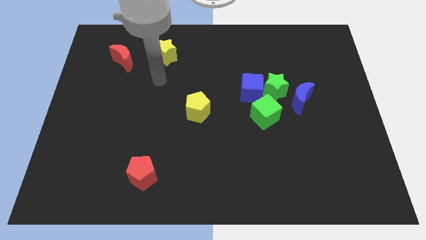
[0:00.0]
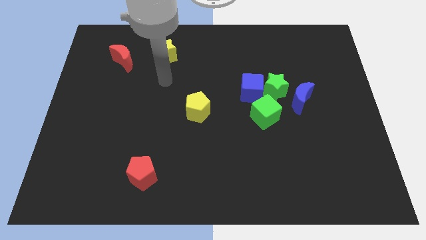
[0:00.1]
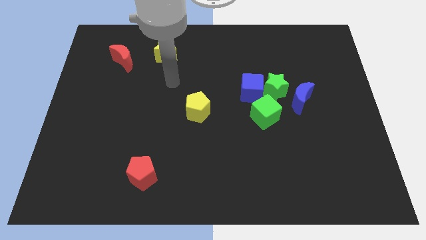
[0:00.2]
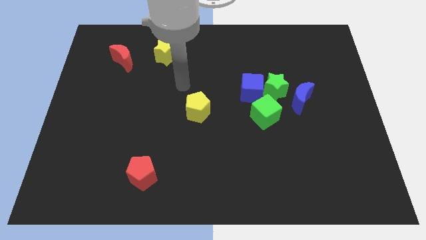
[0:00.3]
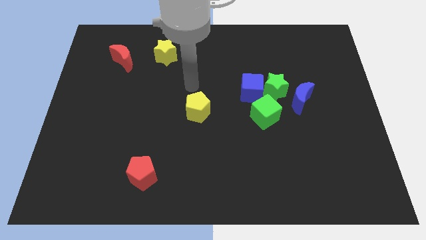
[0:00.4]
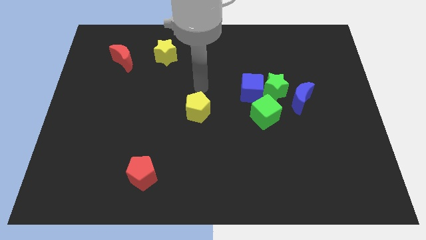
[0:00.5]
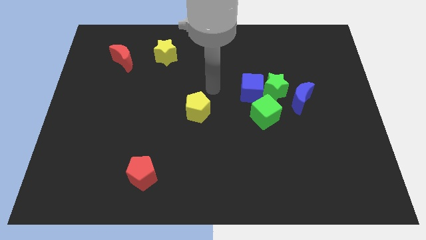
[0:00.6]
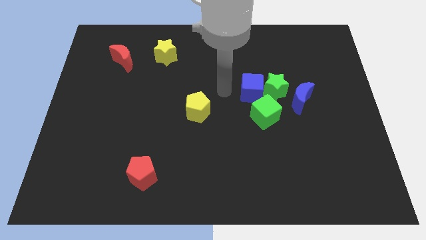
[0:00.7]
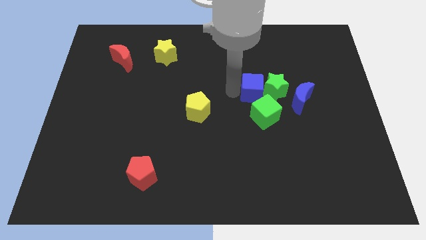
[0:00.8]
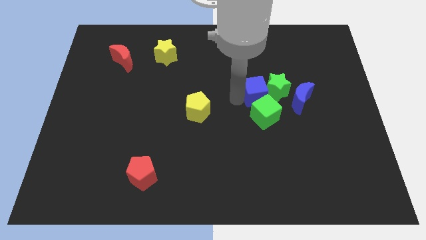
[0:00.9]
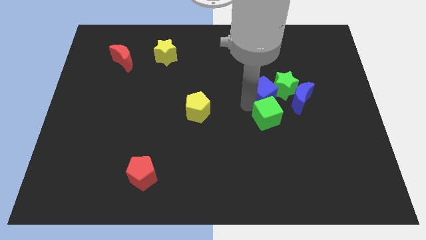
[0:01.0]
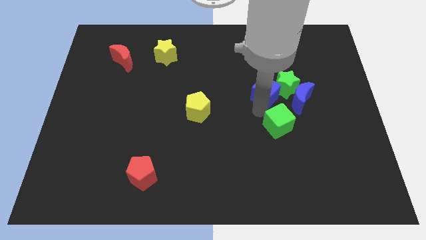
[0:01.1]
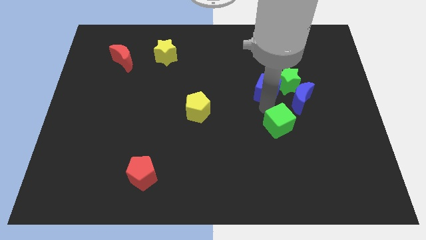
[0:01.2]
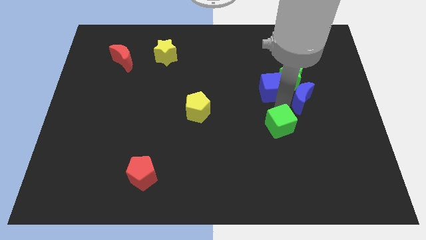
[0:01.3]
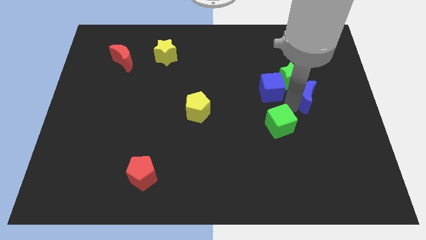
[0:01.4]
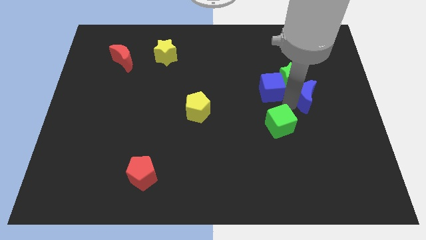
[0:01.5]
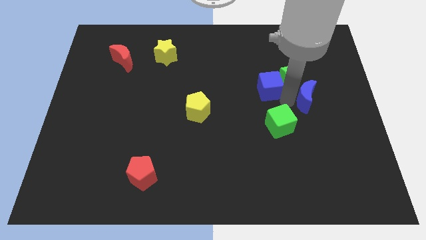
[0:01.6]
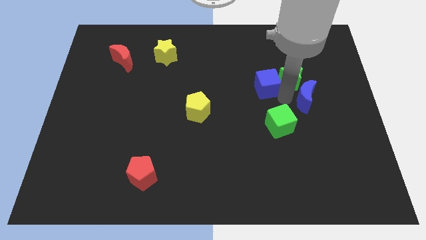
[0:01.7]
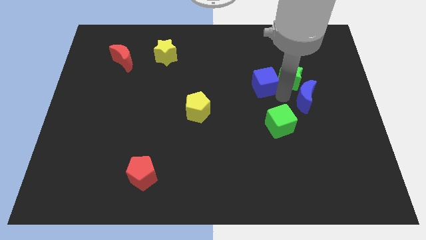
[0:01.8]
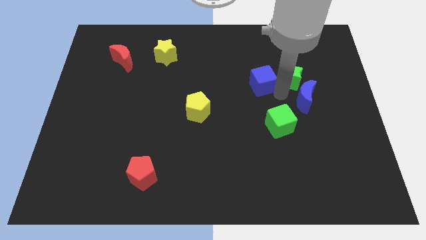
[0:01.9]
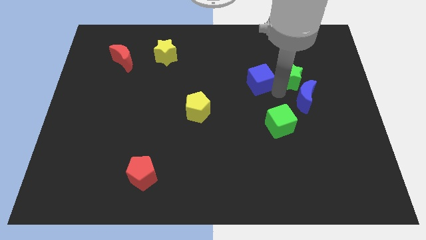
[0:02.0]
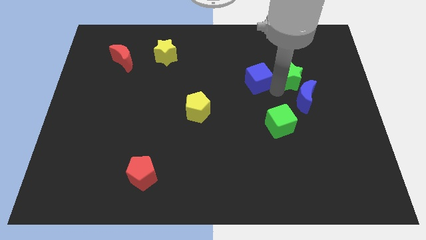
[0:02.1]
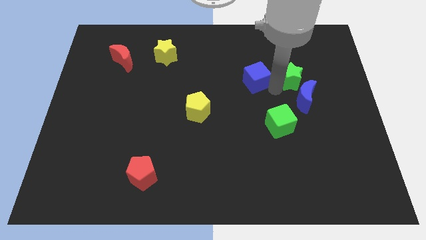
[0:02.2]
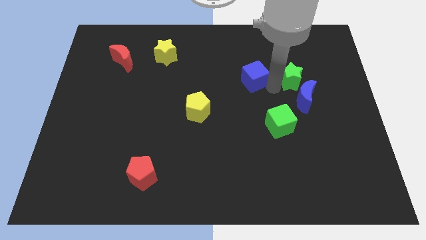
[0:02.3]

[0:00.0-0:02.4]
separate the blue cube from the green star and green cube

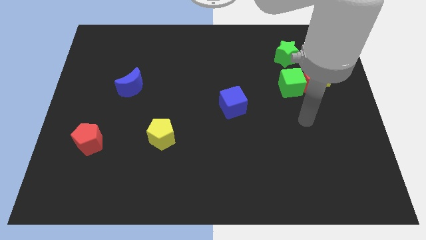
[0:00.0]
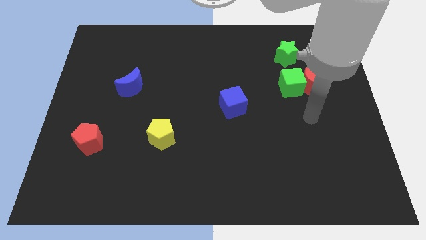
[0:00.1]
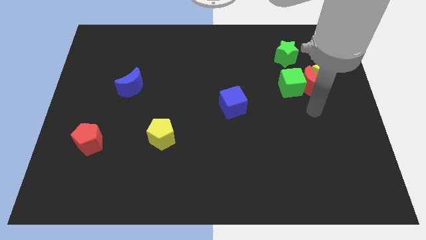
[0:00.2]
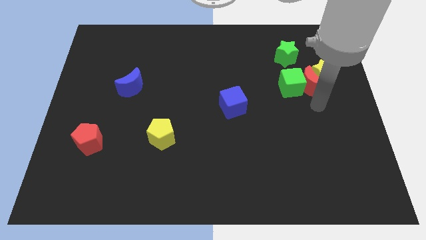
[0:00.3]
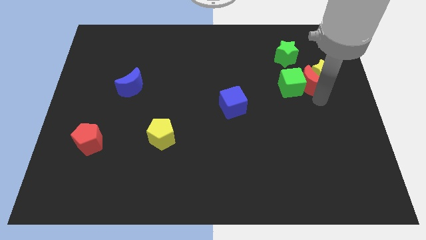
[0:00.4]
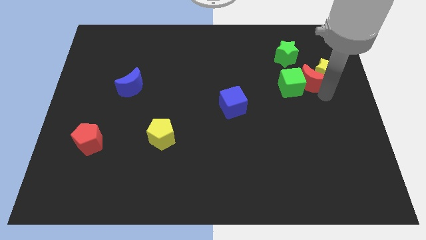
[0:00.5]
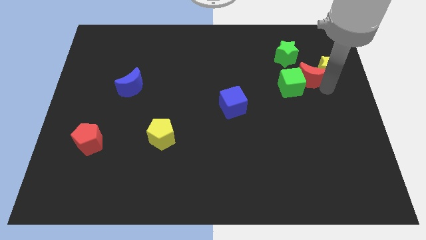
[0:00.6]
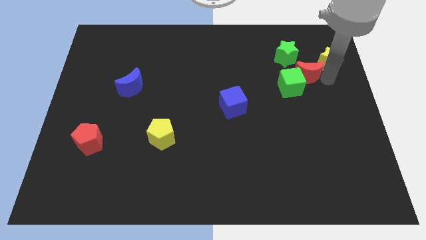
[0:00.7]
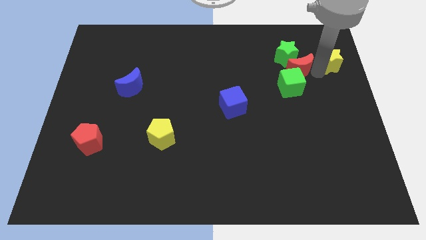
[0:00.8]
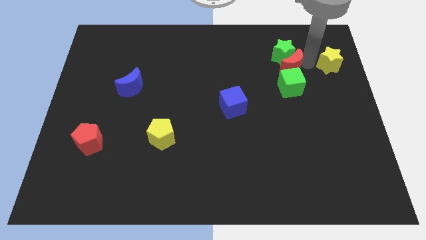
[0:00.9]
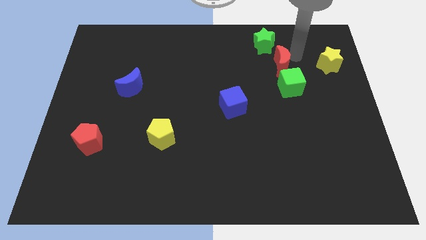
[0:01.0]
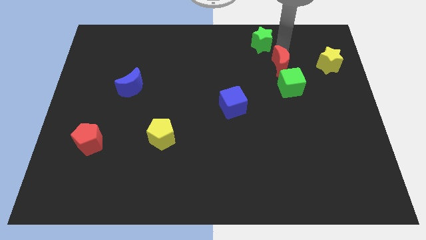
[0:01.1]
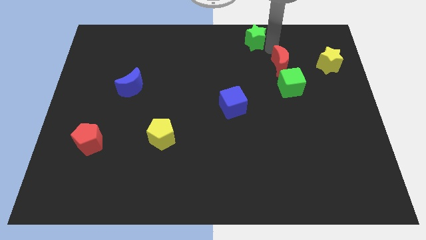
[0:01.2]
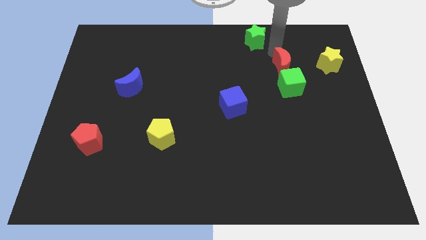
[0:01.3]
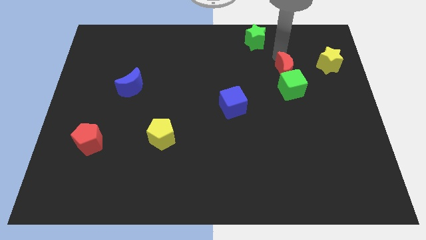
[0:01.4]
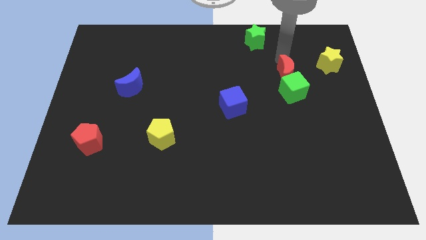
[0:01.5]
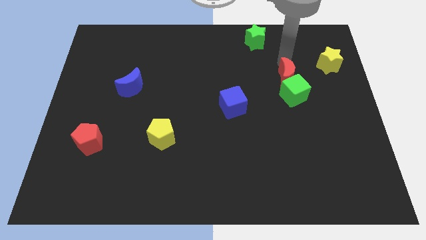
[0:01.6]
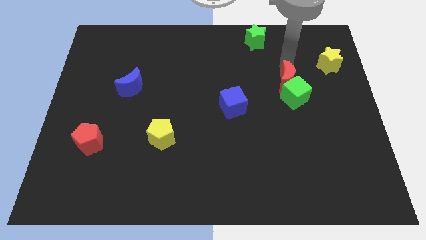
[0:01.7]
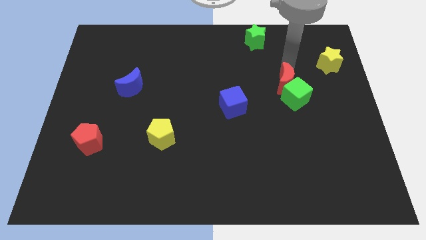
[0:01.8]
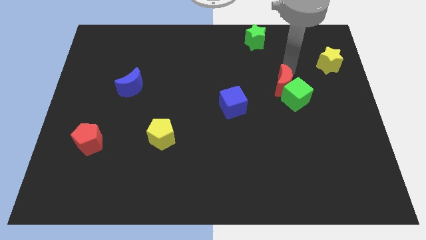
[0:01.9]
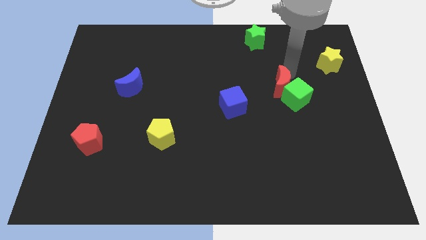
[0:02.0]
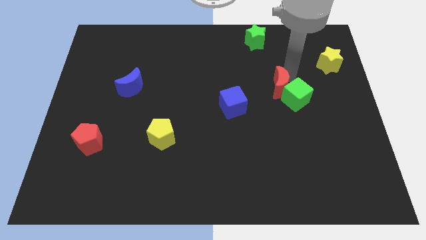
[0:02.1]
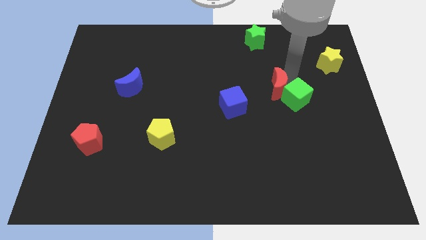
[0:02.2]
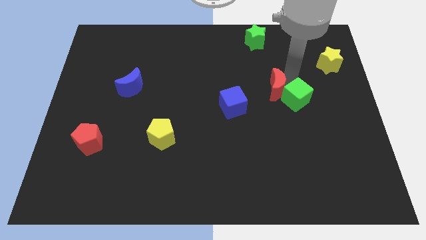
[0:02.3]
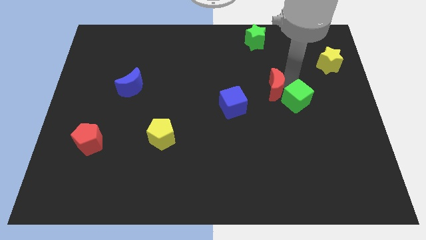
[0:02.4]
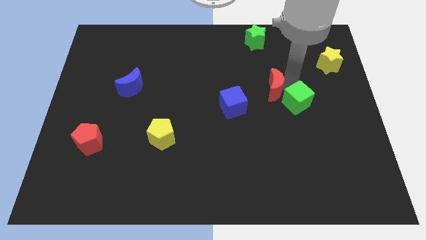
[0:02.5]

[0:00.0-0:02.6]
separate the red moon from the yellow star and green cube

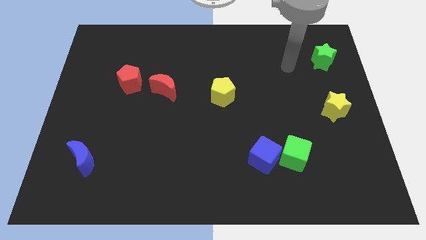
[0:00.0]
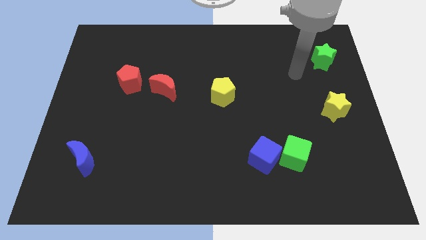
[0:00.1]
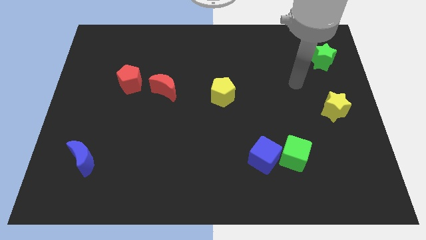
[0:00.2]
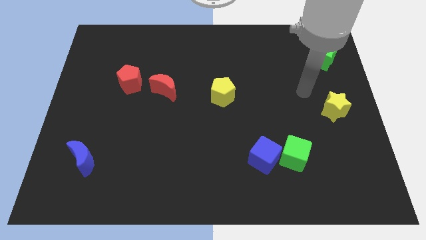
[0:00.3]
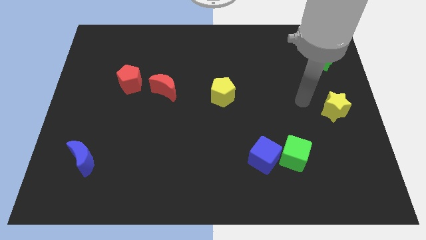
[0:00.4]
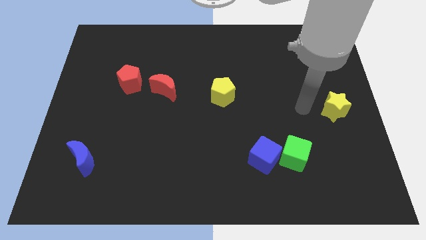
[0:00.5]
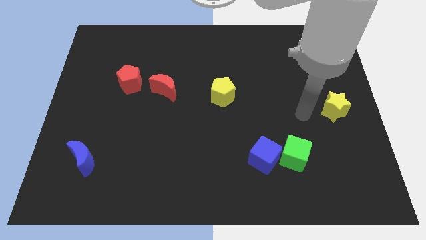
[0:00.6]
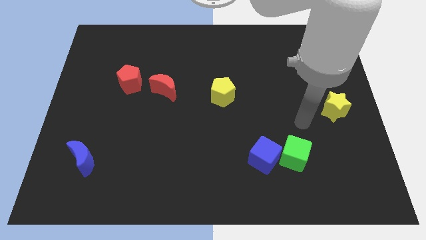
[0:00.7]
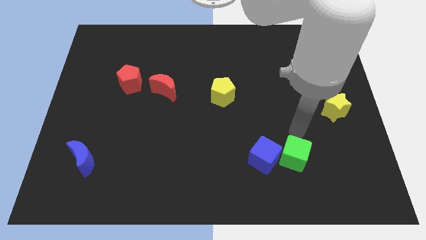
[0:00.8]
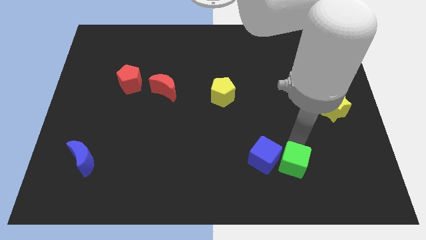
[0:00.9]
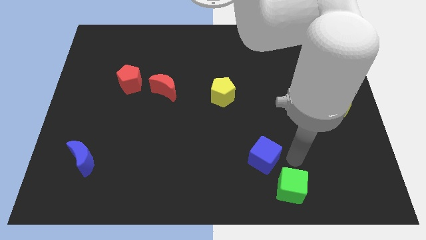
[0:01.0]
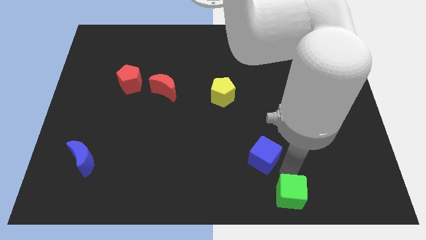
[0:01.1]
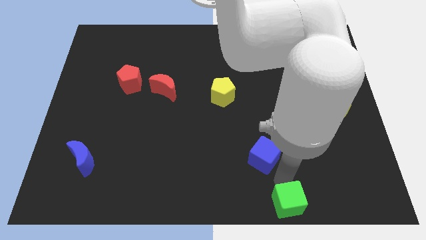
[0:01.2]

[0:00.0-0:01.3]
pull the blue cube apart from the green cube

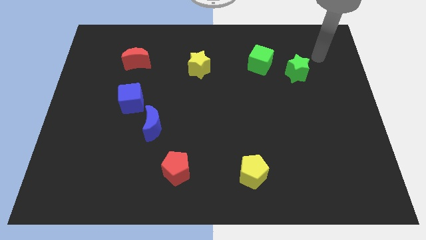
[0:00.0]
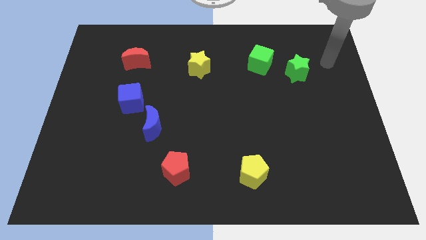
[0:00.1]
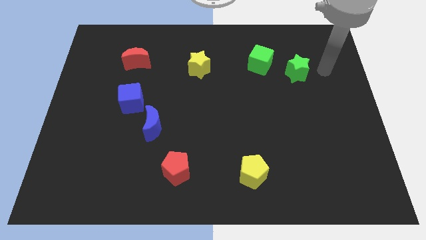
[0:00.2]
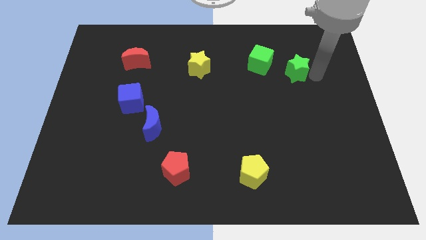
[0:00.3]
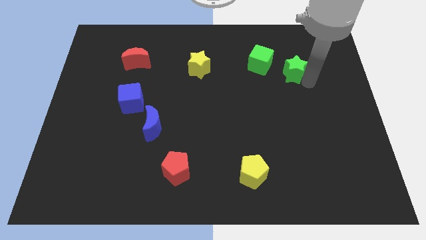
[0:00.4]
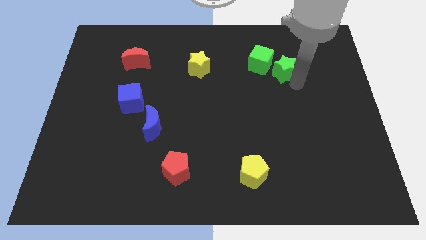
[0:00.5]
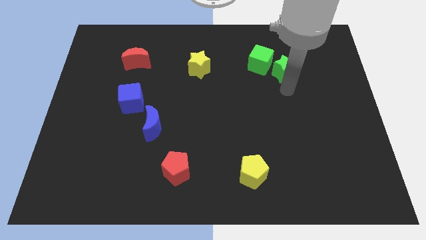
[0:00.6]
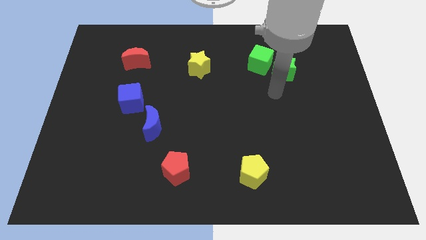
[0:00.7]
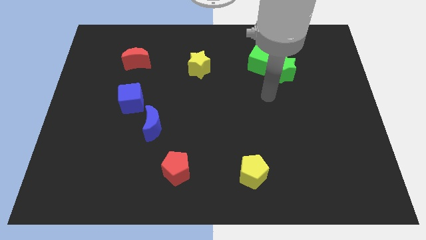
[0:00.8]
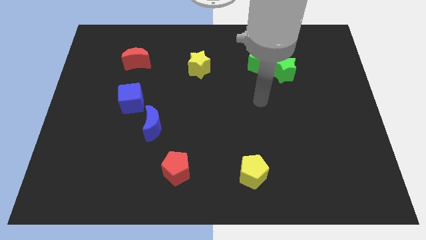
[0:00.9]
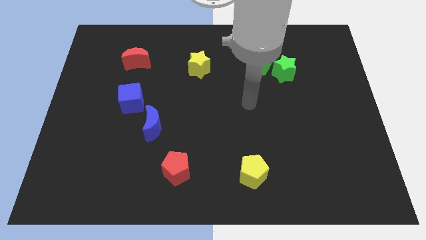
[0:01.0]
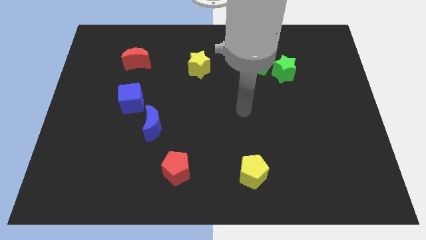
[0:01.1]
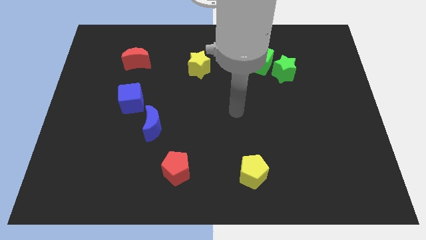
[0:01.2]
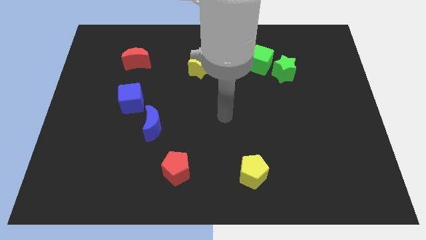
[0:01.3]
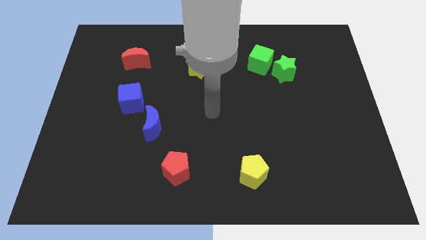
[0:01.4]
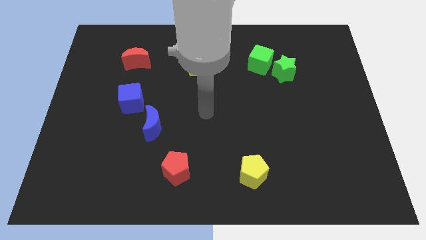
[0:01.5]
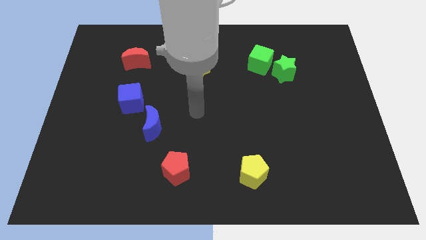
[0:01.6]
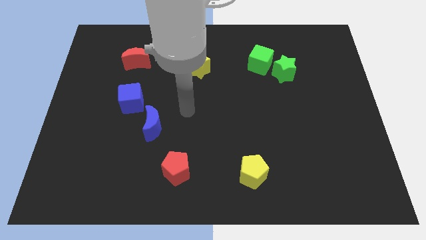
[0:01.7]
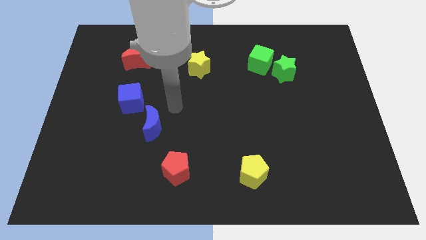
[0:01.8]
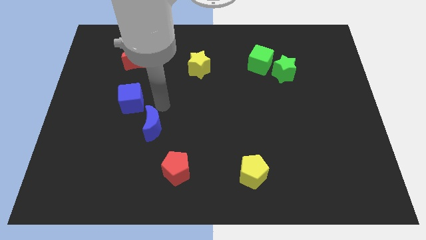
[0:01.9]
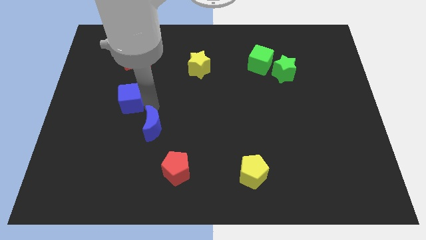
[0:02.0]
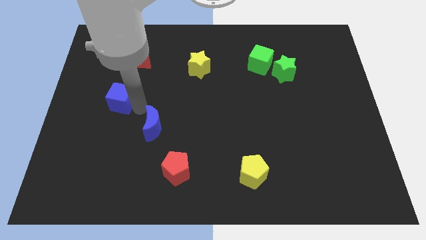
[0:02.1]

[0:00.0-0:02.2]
separate the blue moon from the blue cube

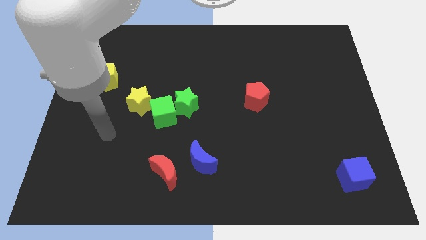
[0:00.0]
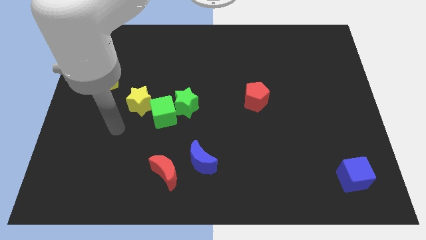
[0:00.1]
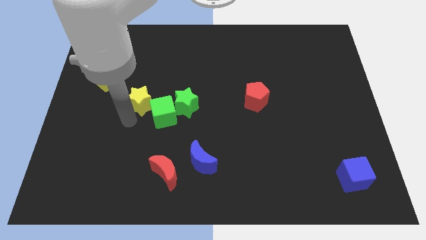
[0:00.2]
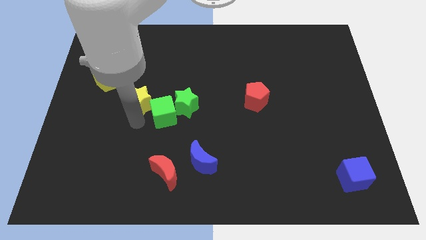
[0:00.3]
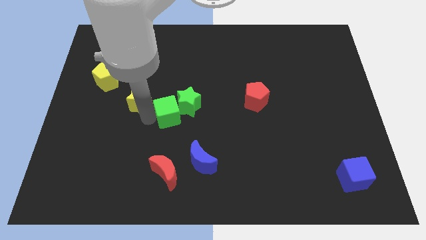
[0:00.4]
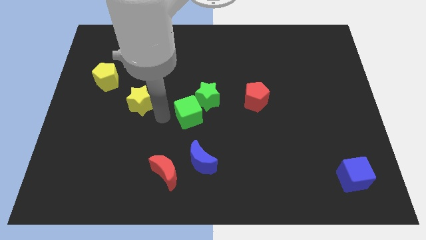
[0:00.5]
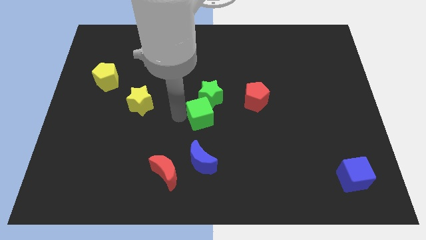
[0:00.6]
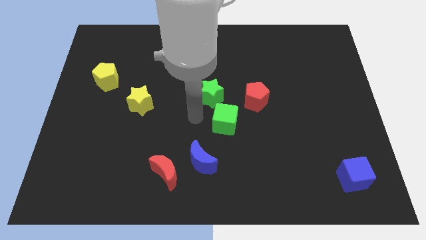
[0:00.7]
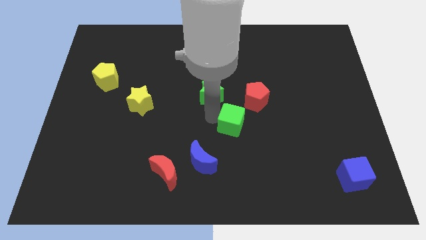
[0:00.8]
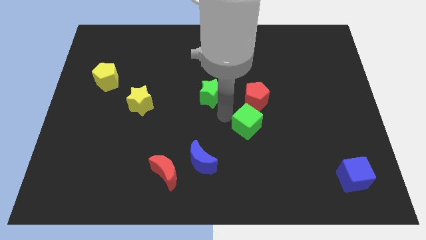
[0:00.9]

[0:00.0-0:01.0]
separate the green star from the green cube
